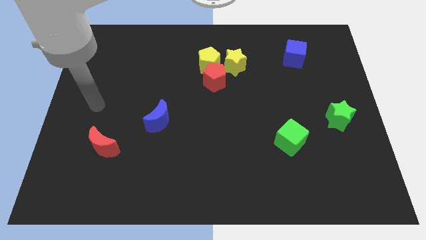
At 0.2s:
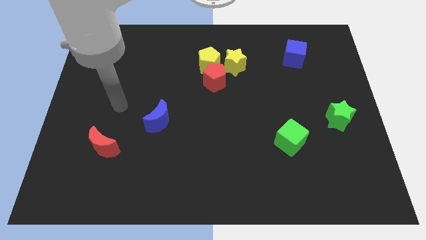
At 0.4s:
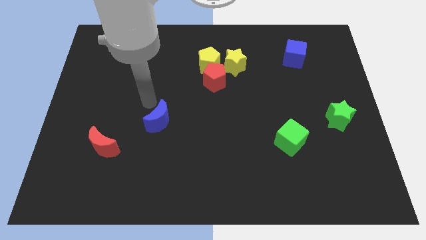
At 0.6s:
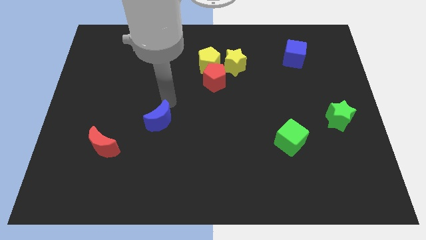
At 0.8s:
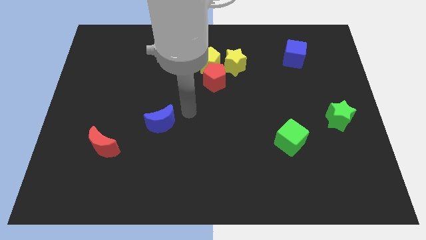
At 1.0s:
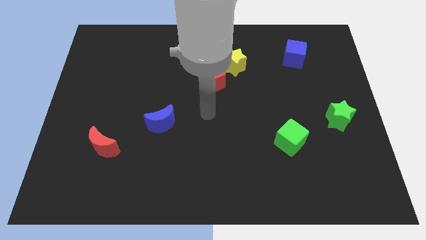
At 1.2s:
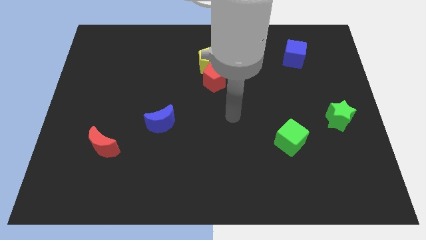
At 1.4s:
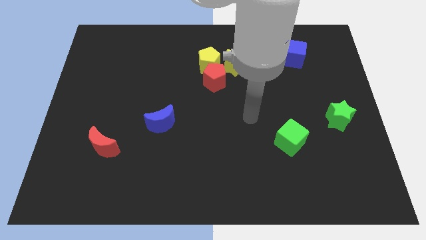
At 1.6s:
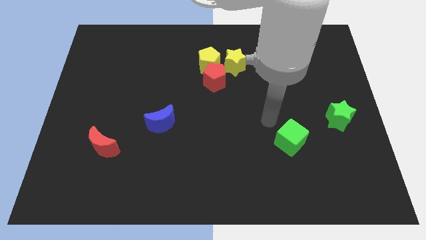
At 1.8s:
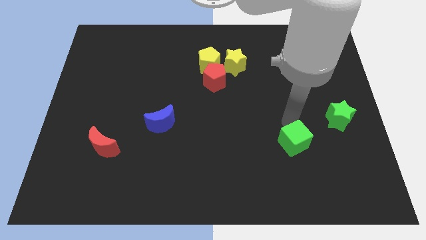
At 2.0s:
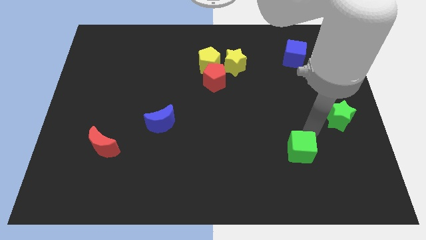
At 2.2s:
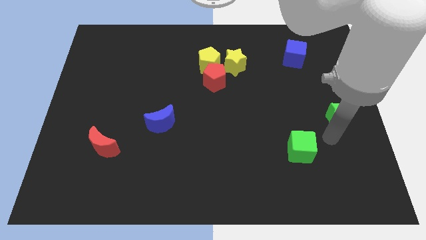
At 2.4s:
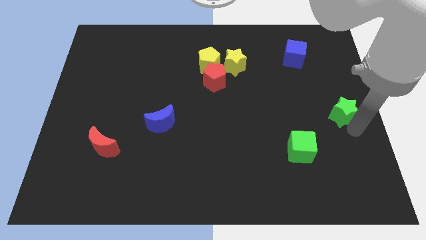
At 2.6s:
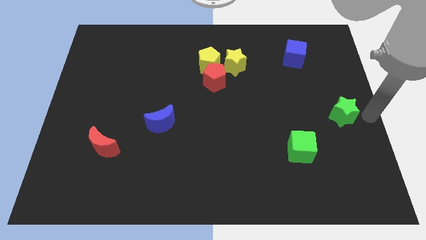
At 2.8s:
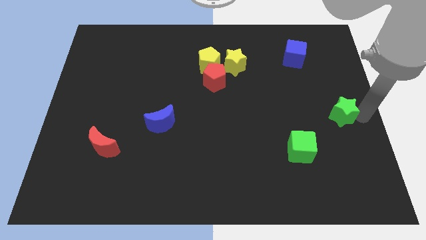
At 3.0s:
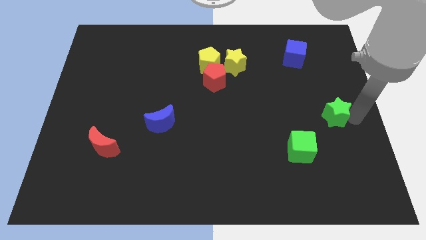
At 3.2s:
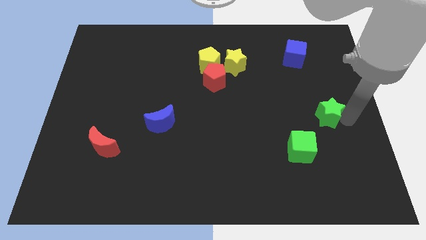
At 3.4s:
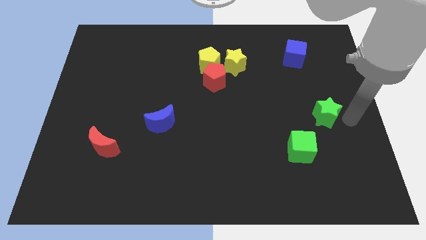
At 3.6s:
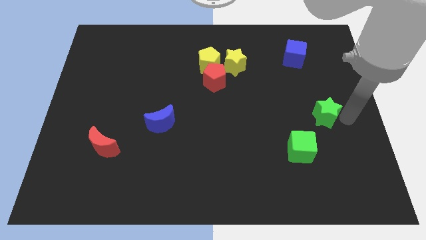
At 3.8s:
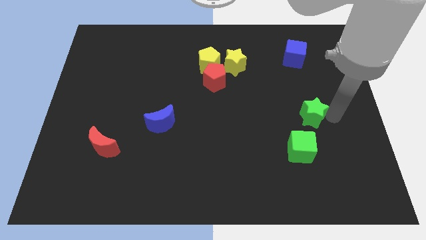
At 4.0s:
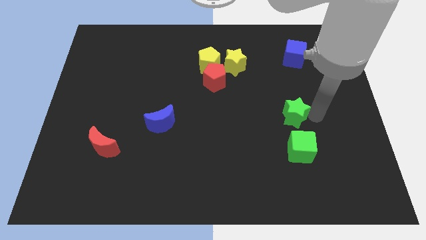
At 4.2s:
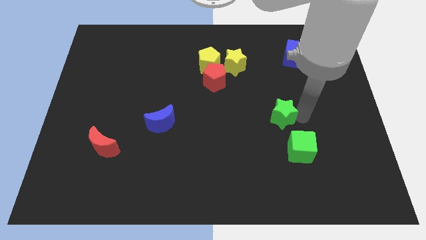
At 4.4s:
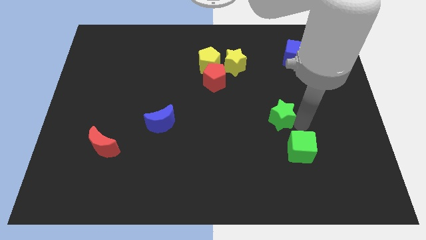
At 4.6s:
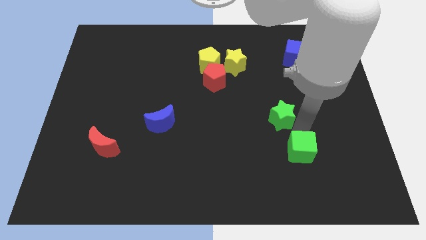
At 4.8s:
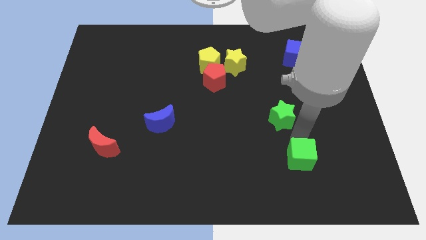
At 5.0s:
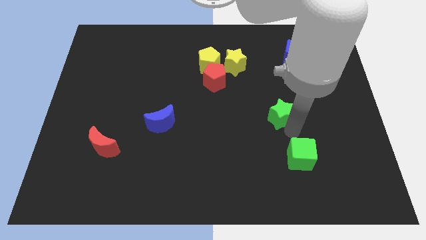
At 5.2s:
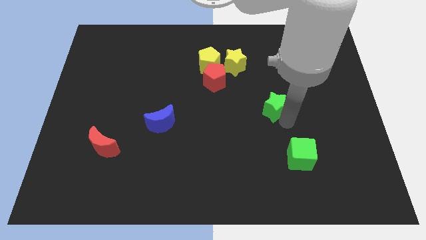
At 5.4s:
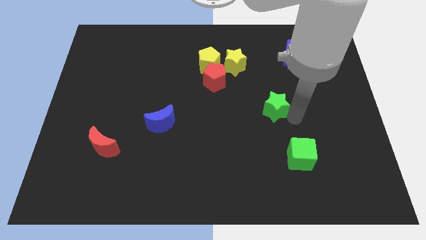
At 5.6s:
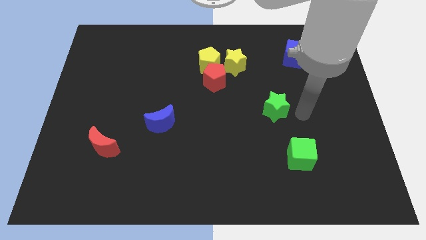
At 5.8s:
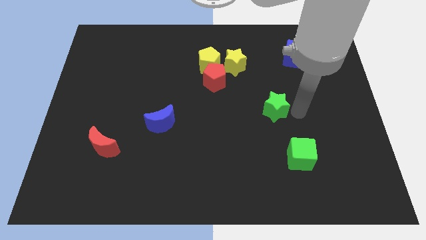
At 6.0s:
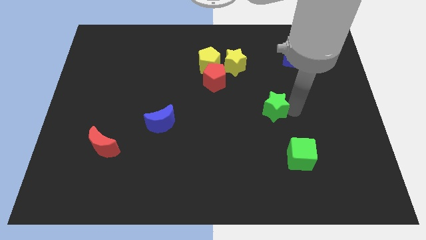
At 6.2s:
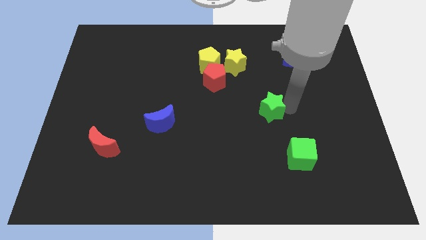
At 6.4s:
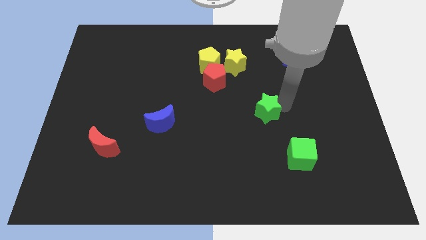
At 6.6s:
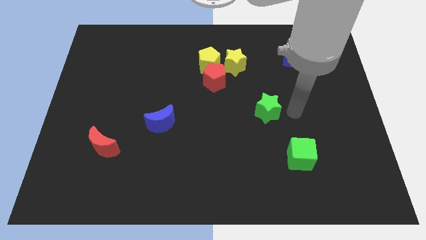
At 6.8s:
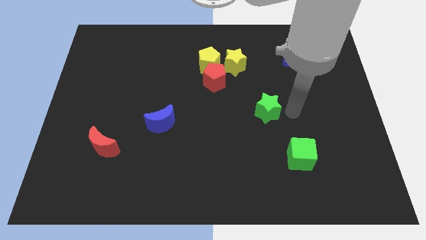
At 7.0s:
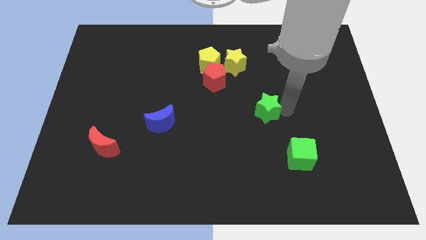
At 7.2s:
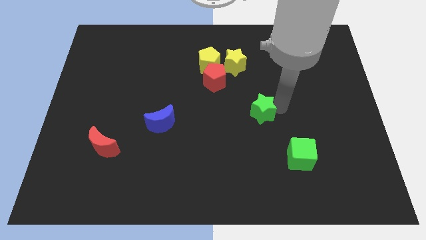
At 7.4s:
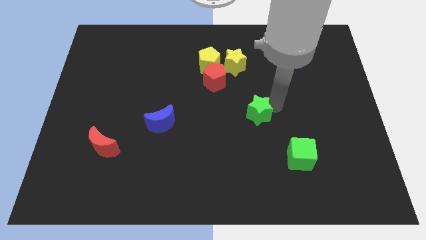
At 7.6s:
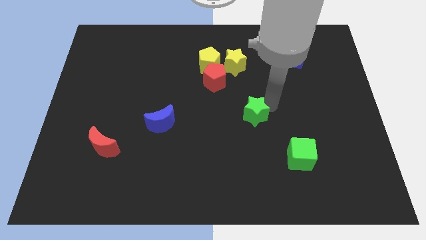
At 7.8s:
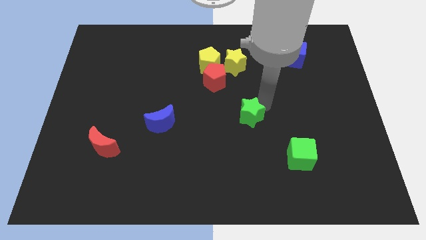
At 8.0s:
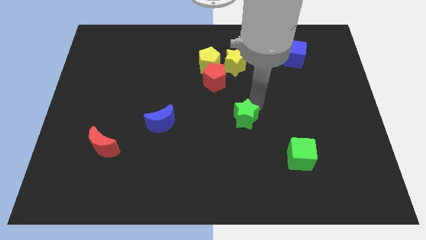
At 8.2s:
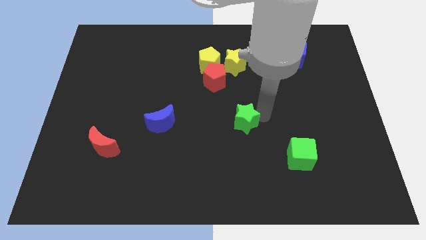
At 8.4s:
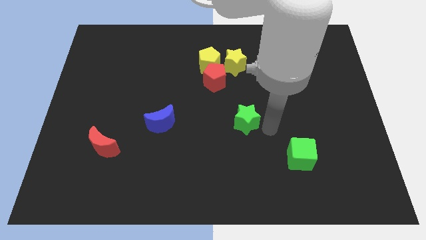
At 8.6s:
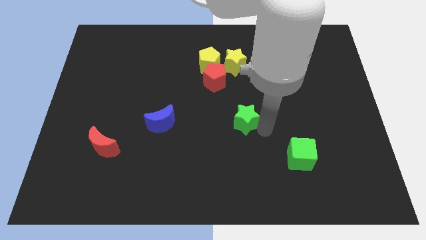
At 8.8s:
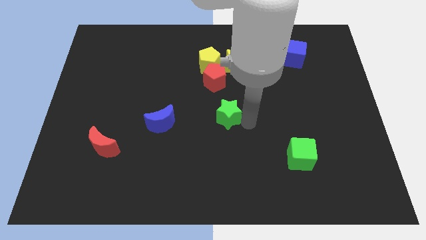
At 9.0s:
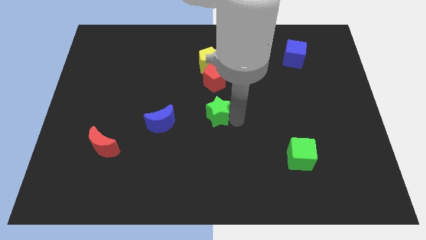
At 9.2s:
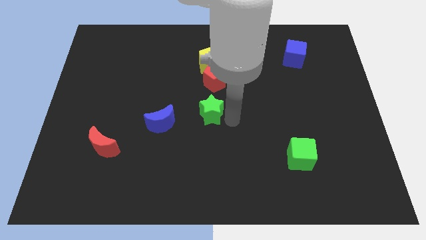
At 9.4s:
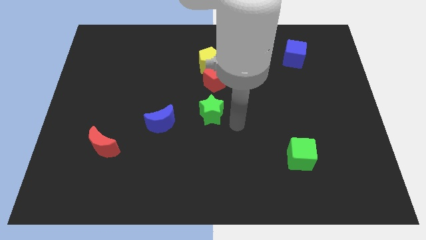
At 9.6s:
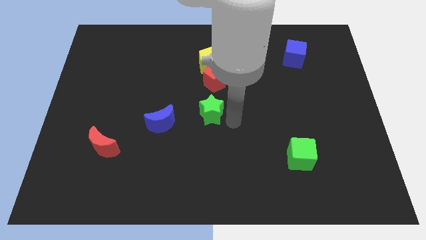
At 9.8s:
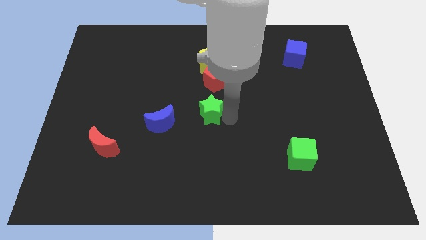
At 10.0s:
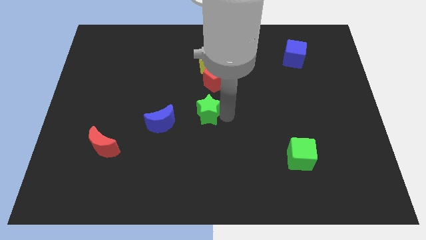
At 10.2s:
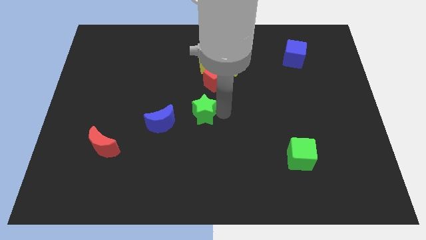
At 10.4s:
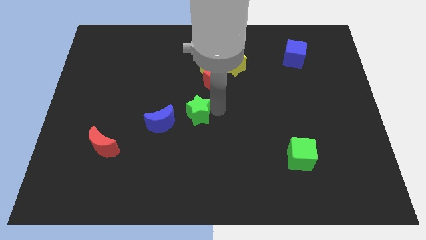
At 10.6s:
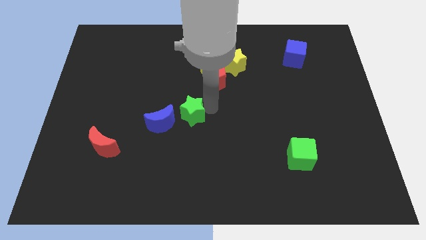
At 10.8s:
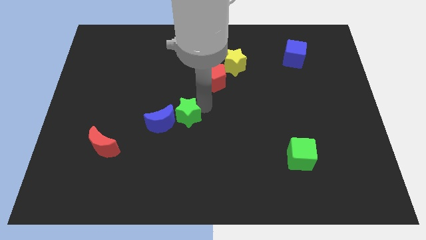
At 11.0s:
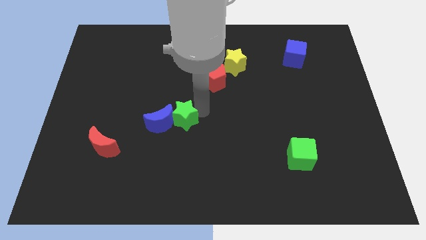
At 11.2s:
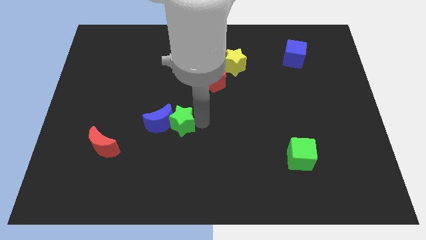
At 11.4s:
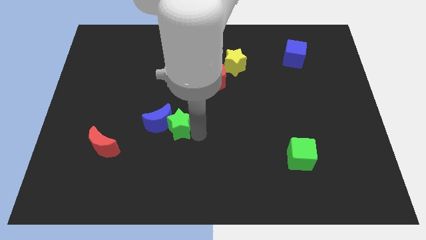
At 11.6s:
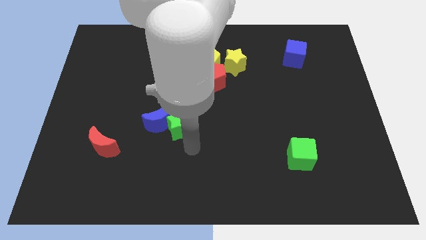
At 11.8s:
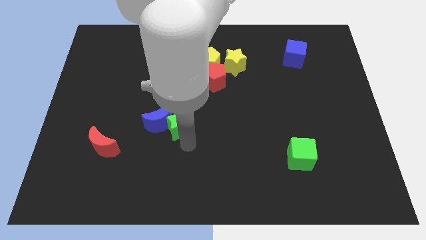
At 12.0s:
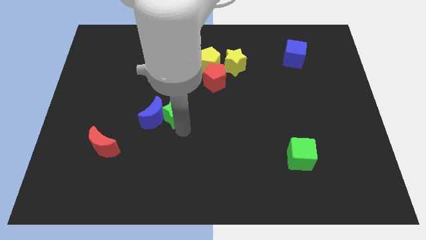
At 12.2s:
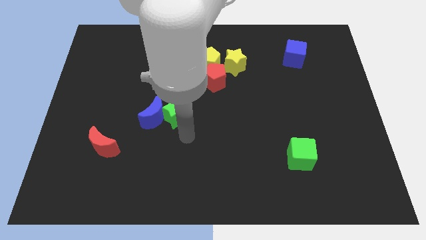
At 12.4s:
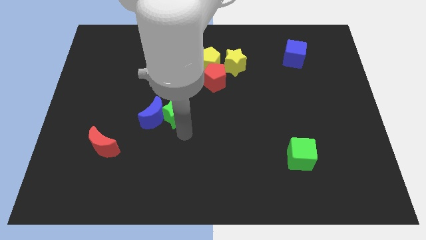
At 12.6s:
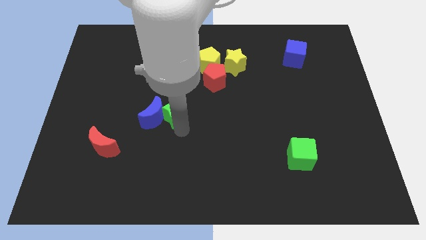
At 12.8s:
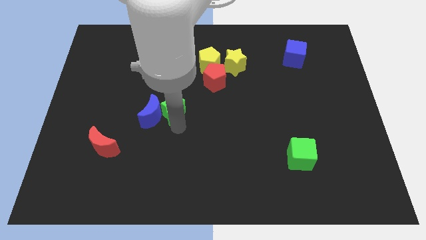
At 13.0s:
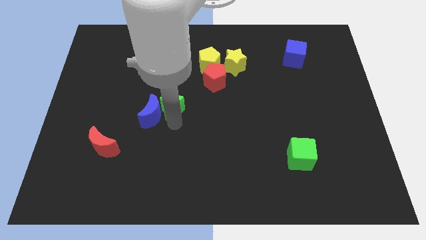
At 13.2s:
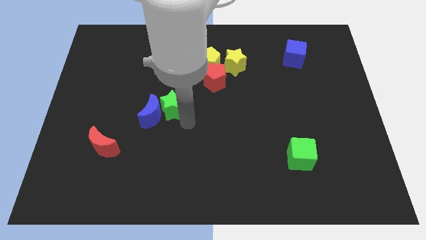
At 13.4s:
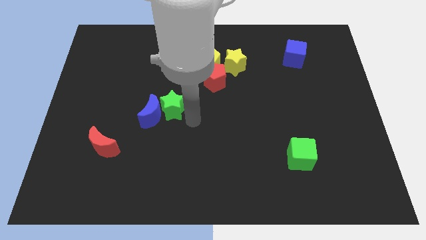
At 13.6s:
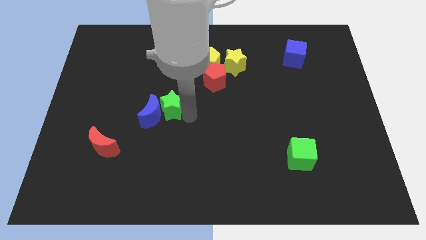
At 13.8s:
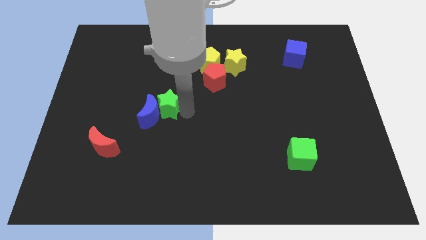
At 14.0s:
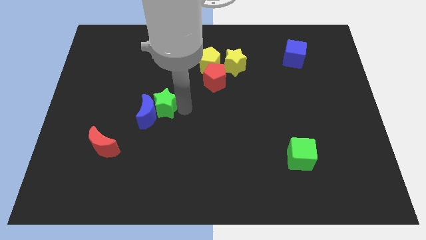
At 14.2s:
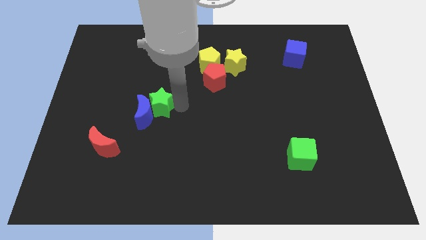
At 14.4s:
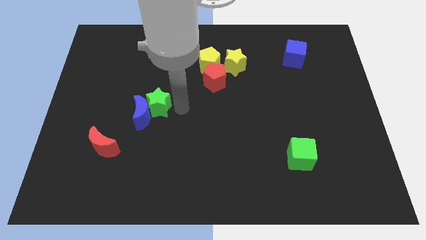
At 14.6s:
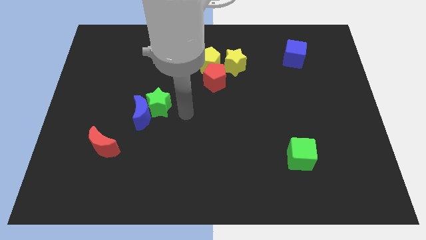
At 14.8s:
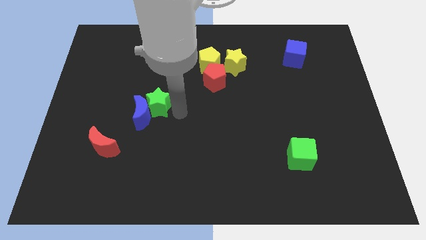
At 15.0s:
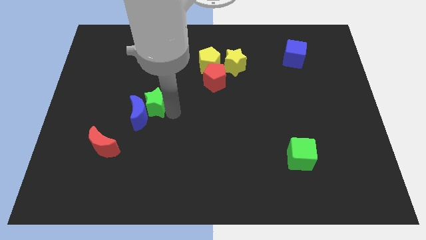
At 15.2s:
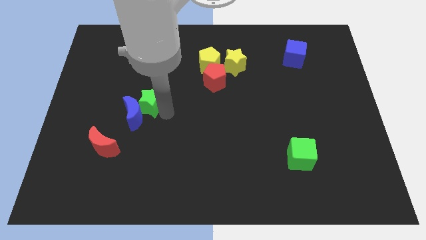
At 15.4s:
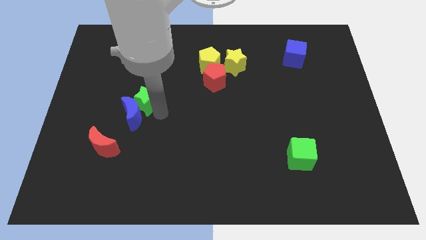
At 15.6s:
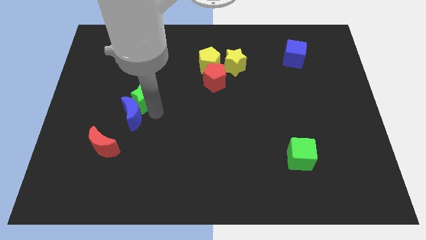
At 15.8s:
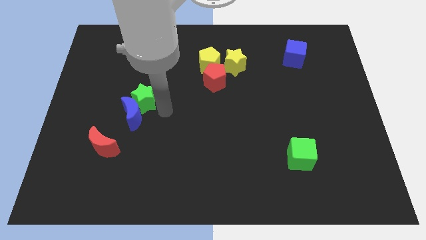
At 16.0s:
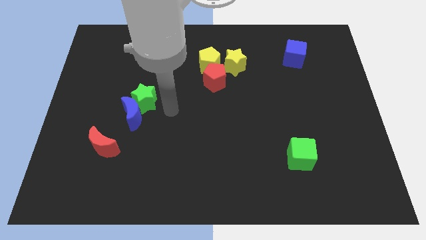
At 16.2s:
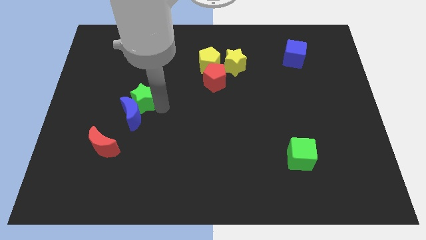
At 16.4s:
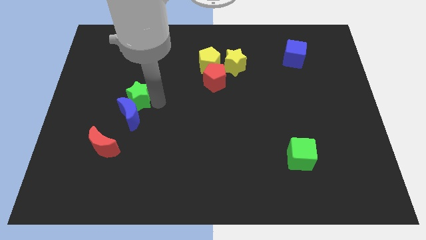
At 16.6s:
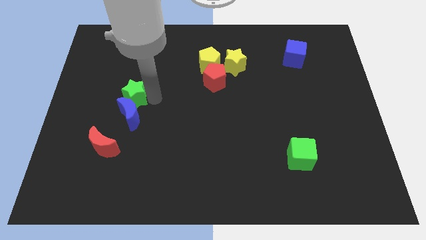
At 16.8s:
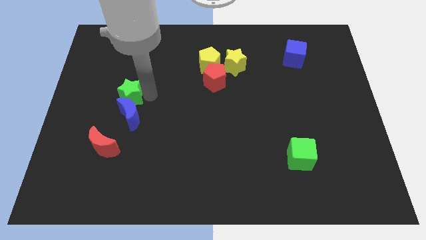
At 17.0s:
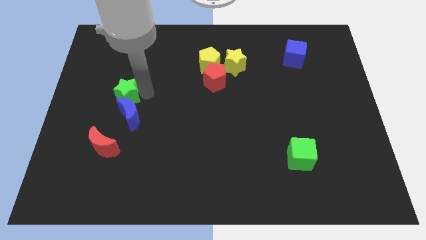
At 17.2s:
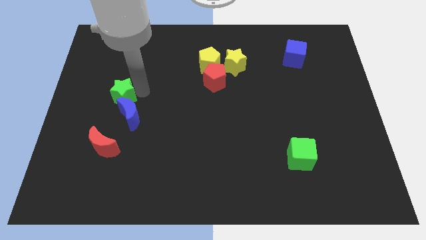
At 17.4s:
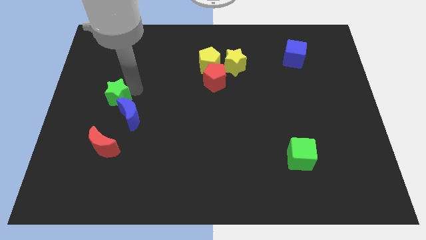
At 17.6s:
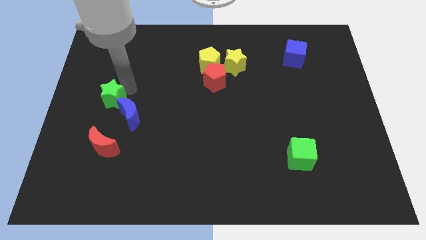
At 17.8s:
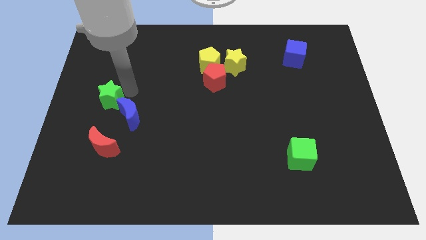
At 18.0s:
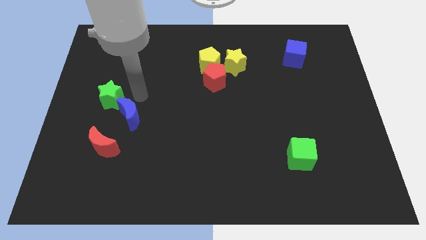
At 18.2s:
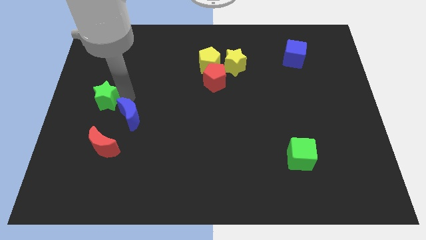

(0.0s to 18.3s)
push the green star to the left side of the board
